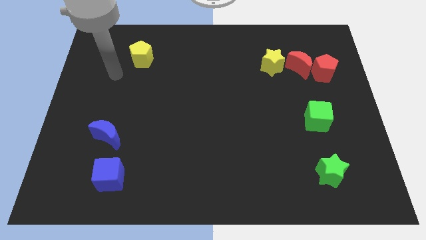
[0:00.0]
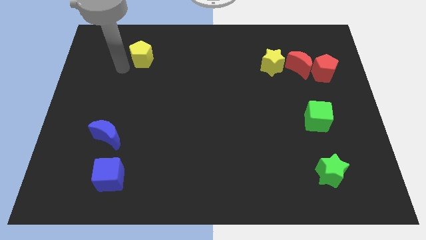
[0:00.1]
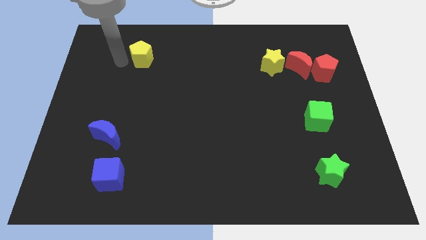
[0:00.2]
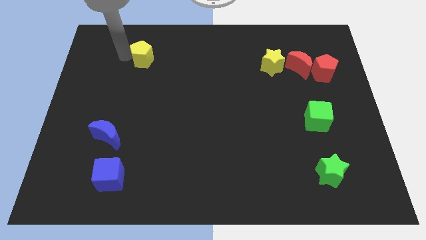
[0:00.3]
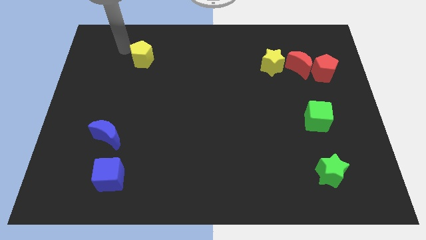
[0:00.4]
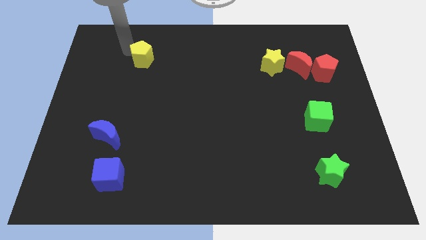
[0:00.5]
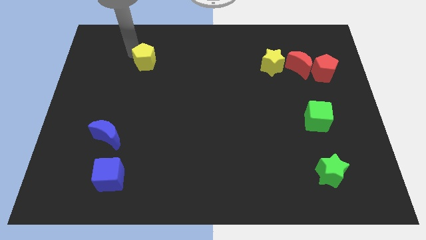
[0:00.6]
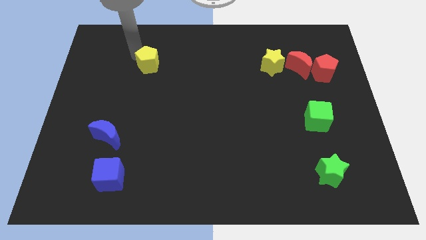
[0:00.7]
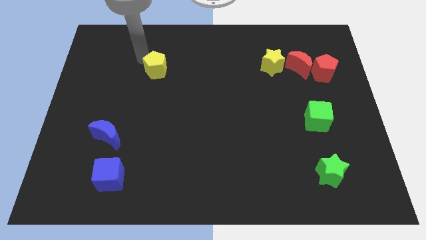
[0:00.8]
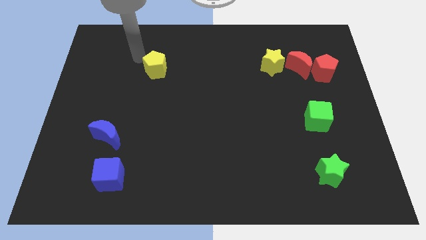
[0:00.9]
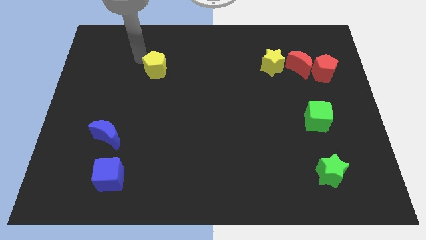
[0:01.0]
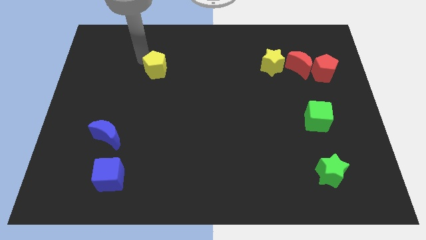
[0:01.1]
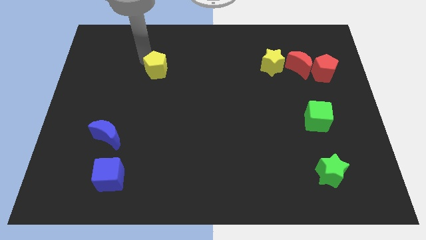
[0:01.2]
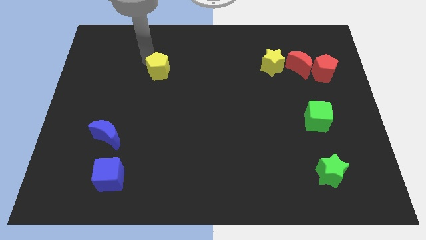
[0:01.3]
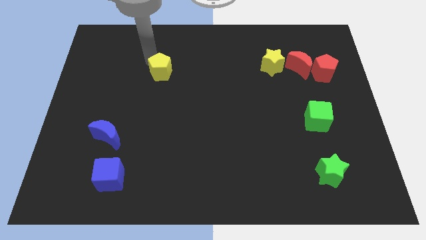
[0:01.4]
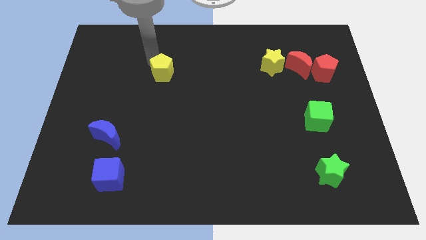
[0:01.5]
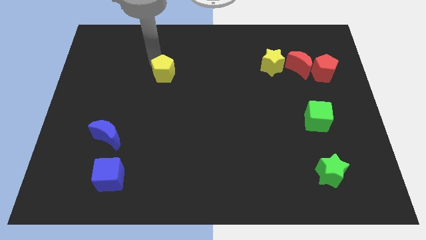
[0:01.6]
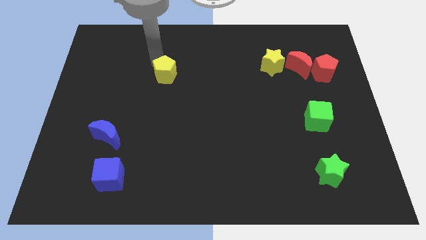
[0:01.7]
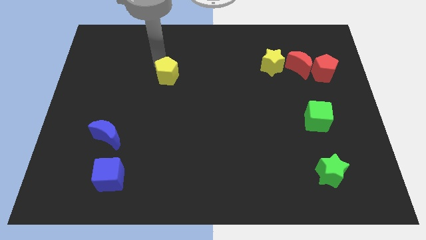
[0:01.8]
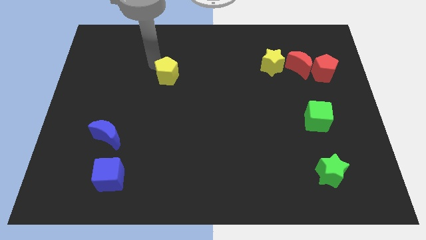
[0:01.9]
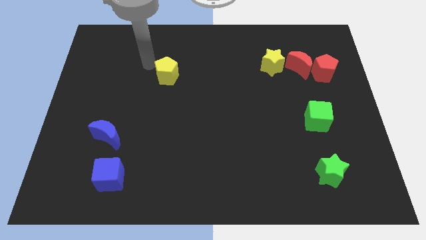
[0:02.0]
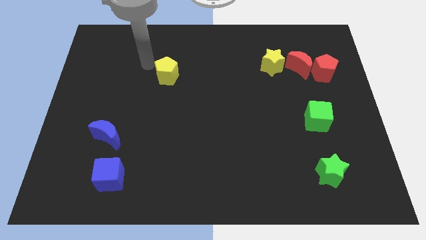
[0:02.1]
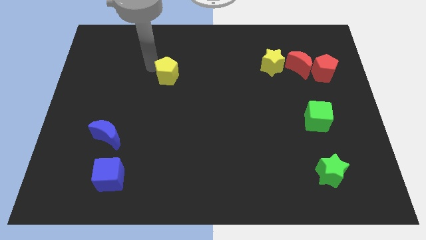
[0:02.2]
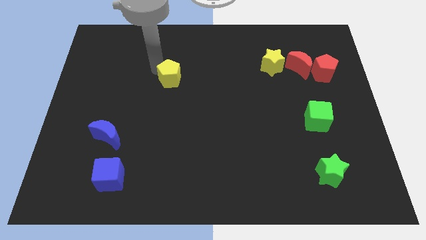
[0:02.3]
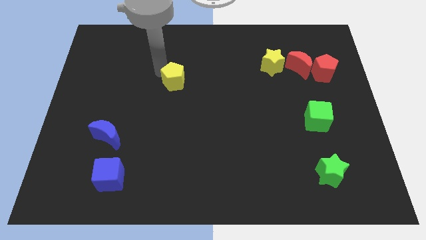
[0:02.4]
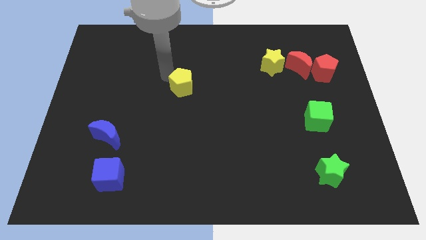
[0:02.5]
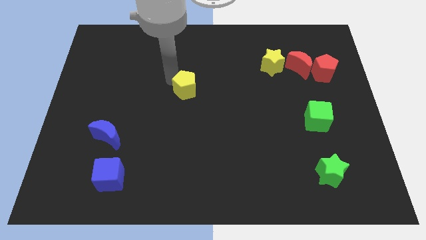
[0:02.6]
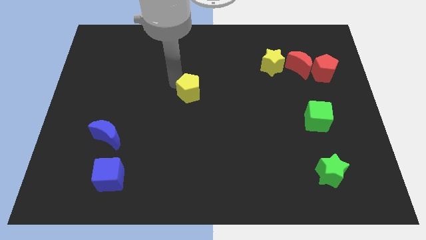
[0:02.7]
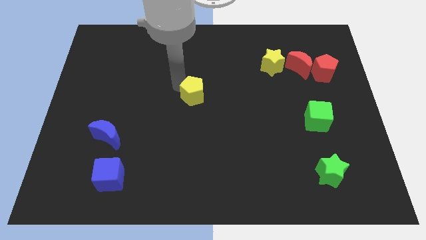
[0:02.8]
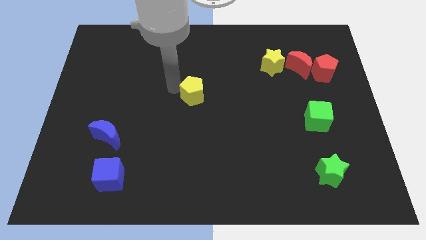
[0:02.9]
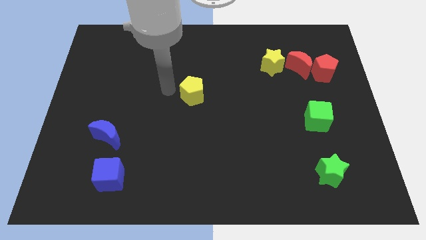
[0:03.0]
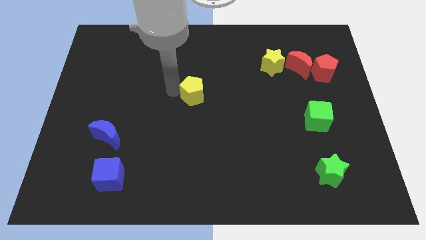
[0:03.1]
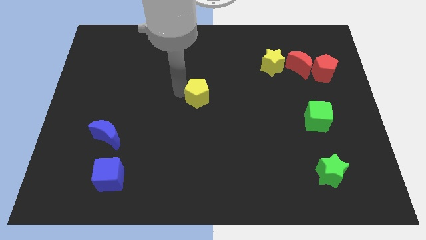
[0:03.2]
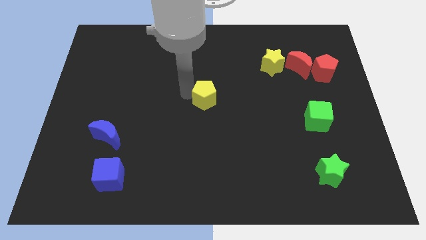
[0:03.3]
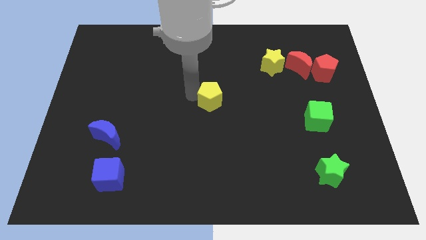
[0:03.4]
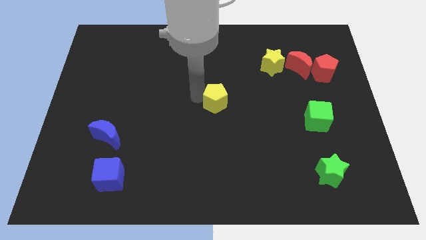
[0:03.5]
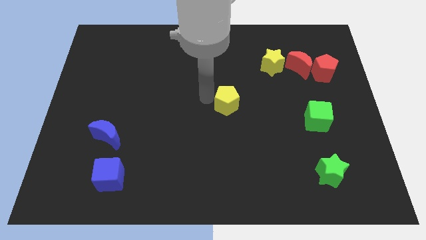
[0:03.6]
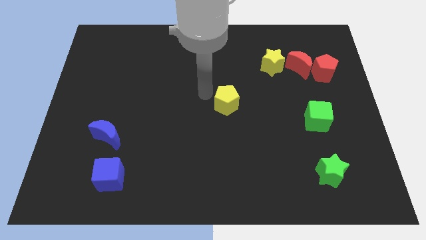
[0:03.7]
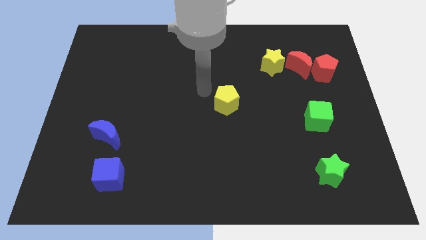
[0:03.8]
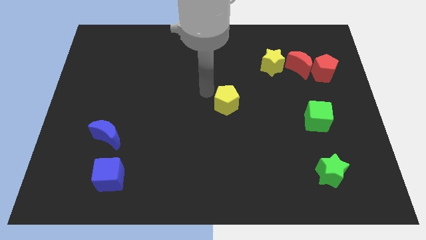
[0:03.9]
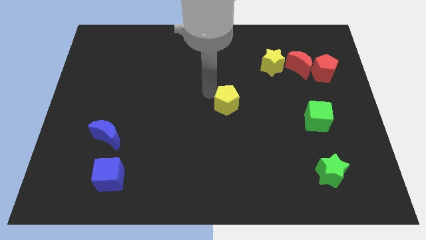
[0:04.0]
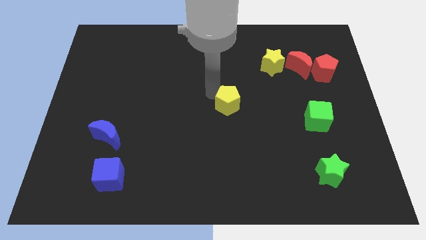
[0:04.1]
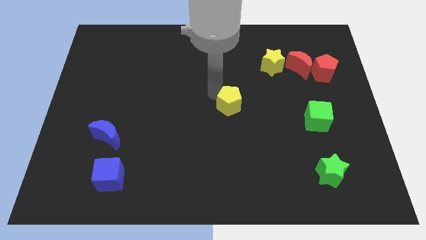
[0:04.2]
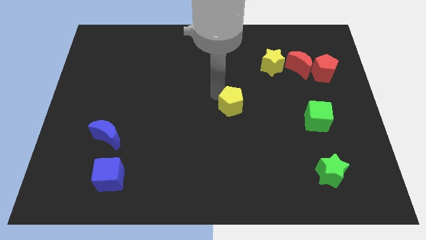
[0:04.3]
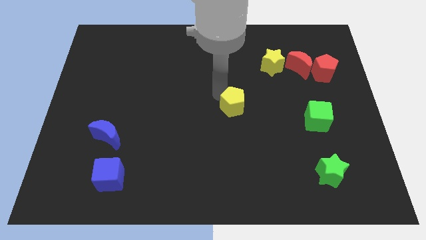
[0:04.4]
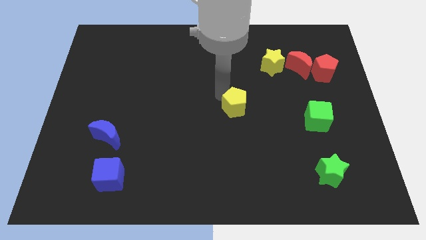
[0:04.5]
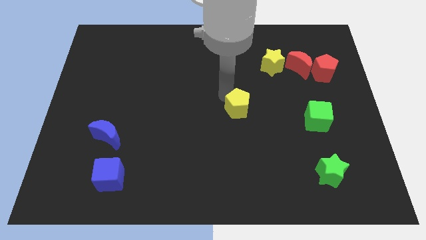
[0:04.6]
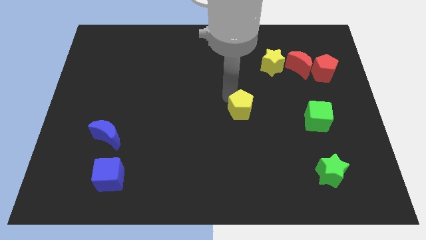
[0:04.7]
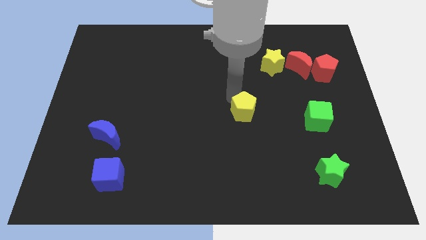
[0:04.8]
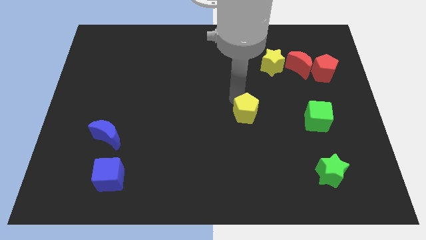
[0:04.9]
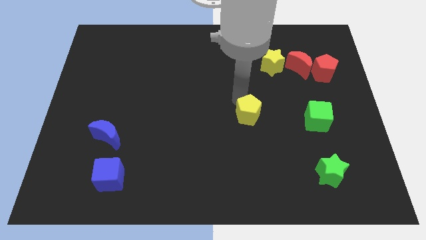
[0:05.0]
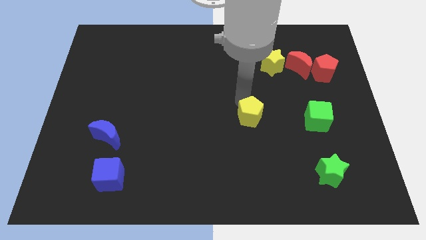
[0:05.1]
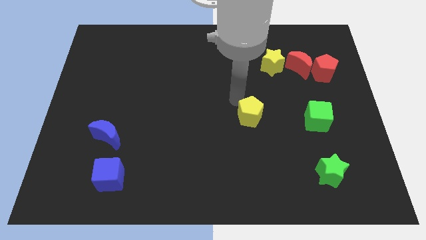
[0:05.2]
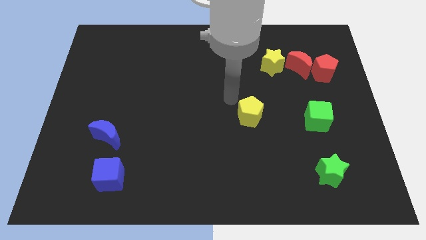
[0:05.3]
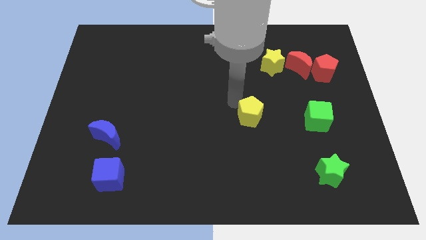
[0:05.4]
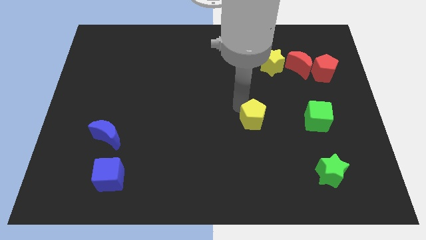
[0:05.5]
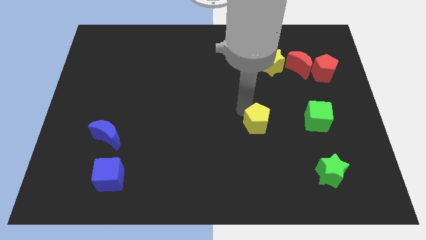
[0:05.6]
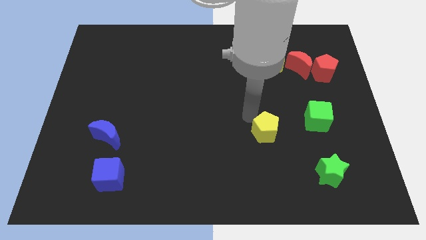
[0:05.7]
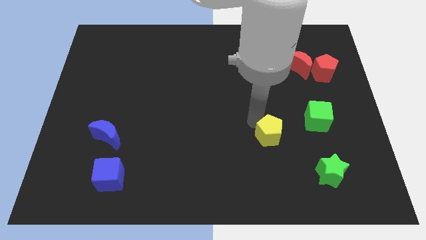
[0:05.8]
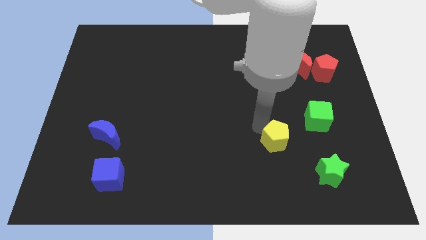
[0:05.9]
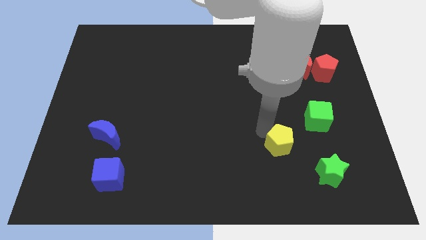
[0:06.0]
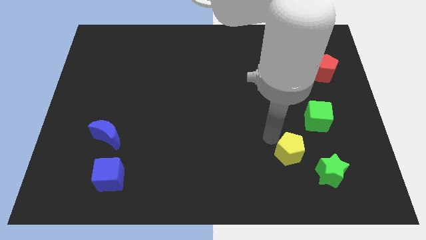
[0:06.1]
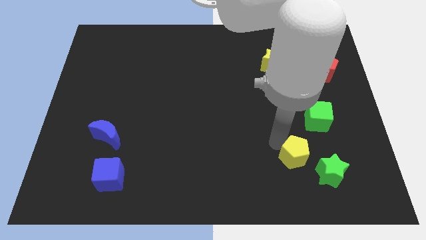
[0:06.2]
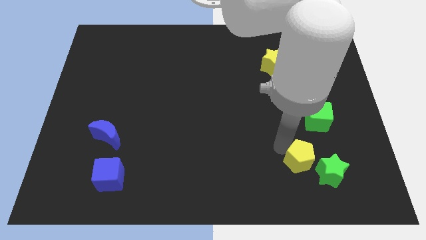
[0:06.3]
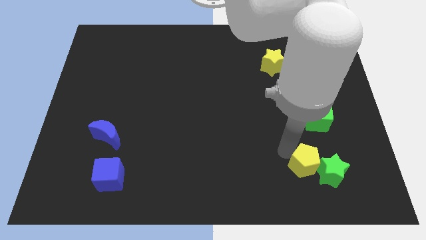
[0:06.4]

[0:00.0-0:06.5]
slide the yellow pentagon to the green star

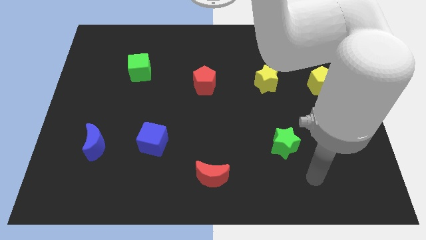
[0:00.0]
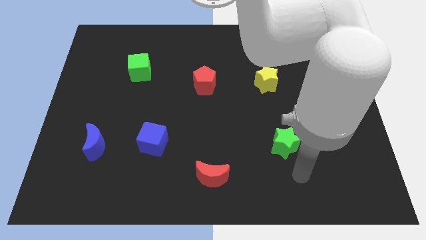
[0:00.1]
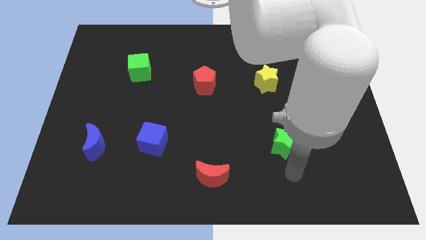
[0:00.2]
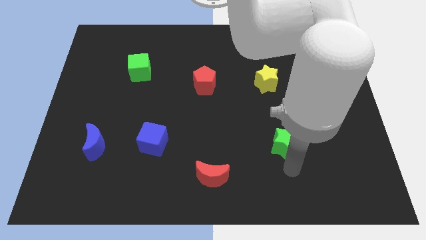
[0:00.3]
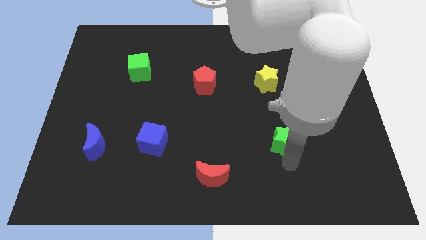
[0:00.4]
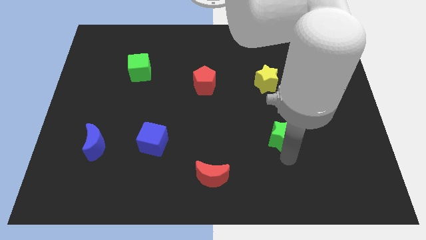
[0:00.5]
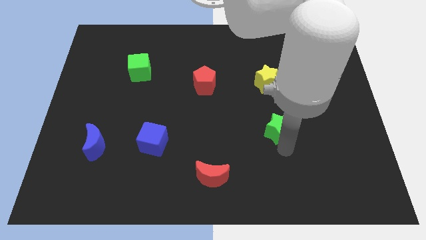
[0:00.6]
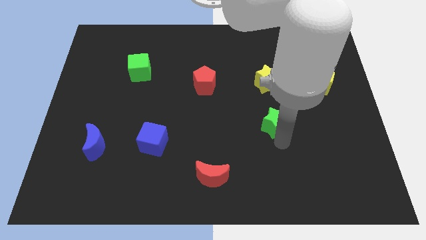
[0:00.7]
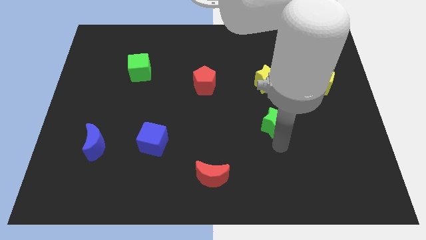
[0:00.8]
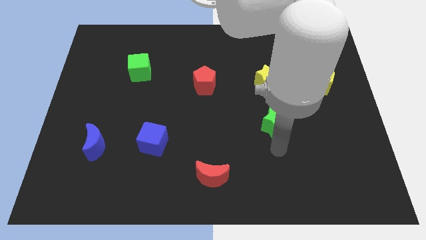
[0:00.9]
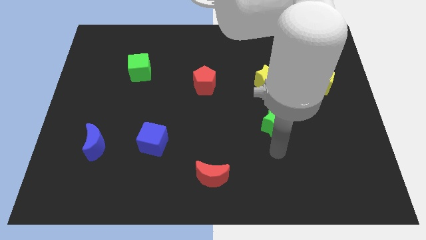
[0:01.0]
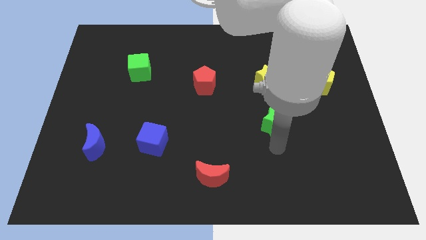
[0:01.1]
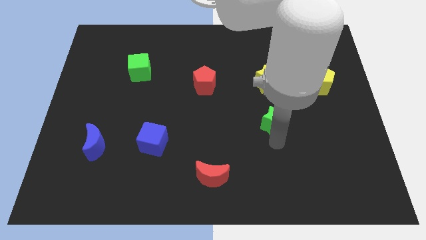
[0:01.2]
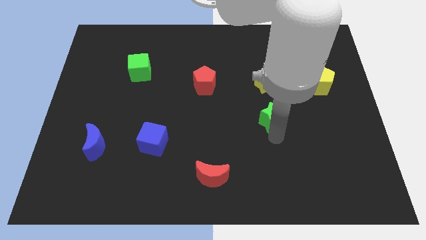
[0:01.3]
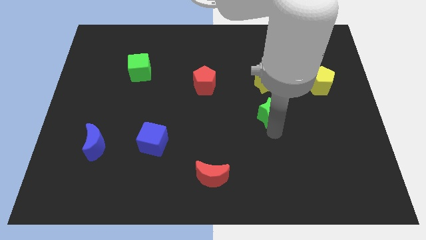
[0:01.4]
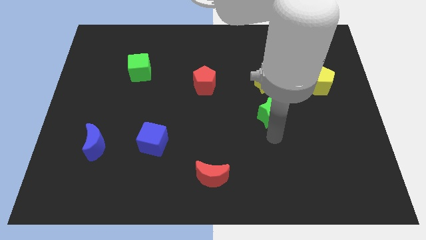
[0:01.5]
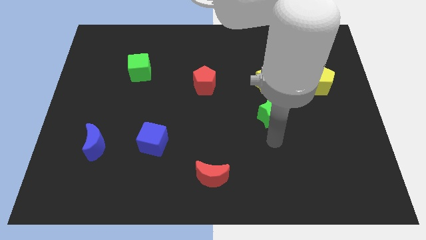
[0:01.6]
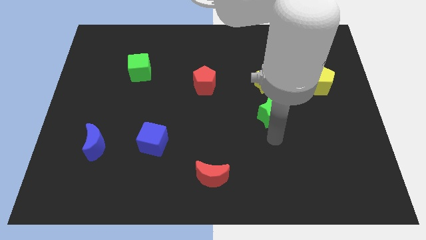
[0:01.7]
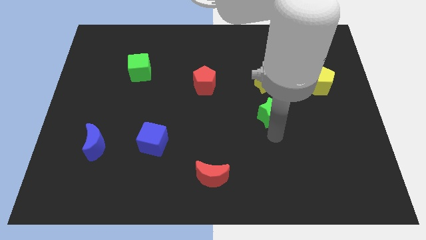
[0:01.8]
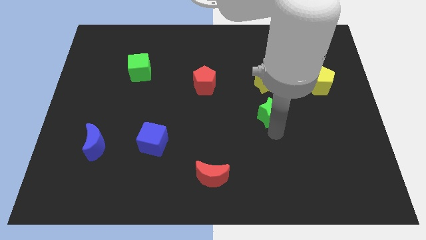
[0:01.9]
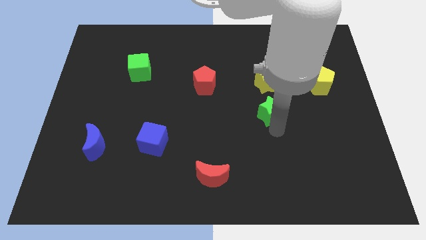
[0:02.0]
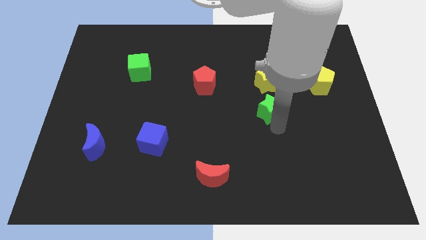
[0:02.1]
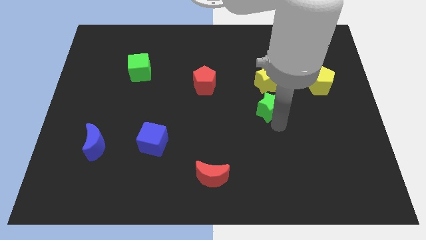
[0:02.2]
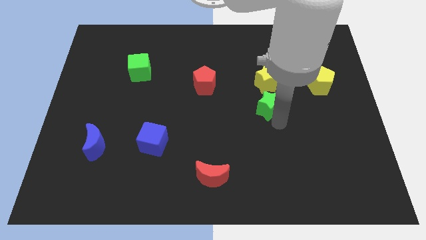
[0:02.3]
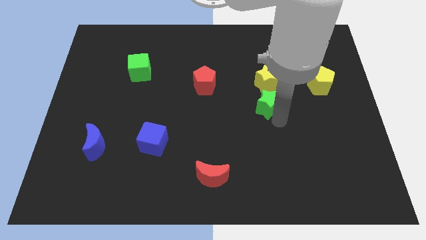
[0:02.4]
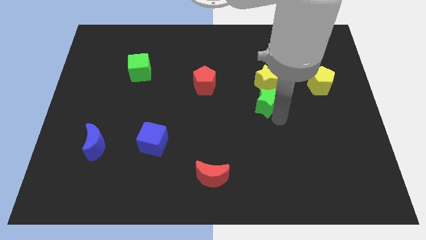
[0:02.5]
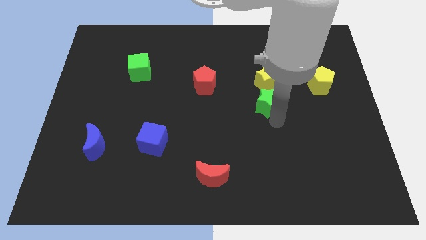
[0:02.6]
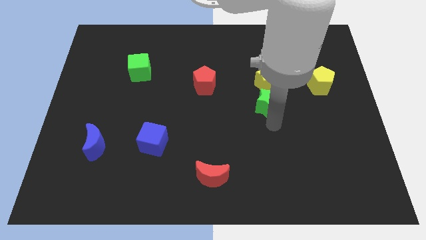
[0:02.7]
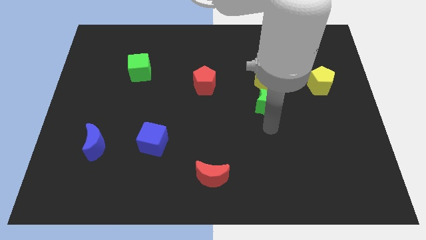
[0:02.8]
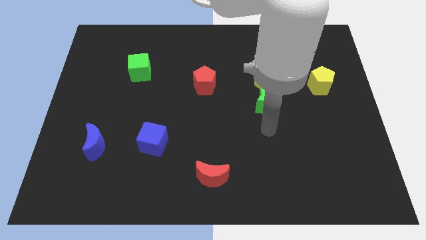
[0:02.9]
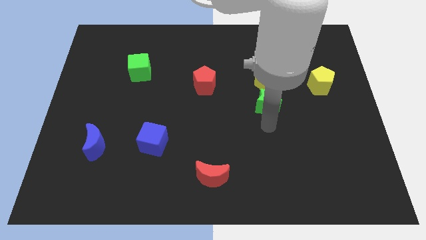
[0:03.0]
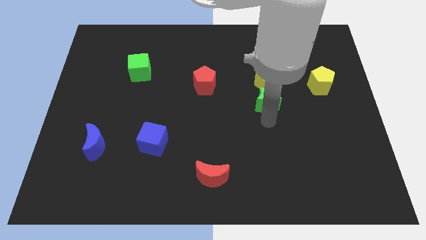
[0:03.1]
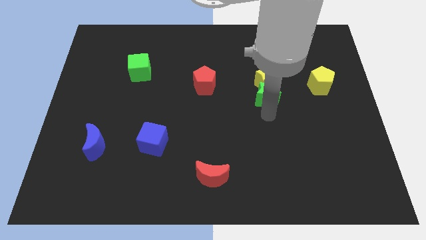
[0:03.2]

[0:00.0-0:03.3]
move the green star next to the yellow star
